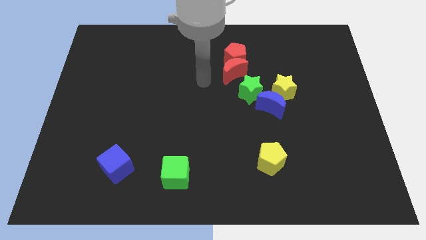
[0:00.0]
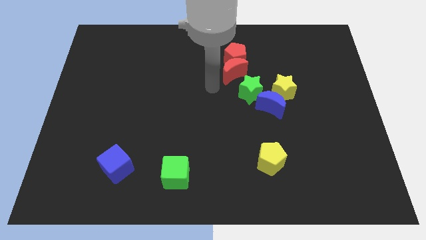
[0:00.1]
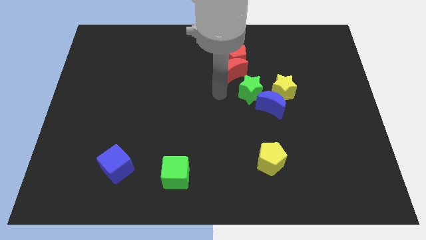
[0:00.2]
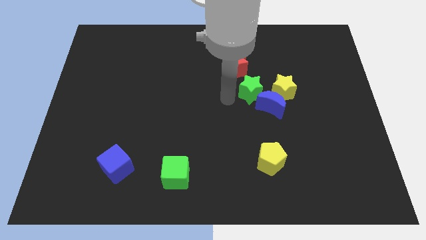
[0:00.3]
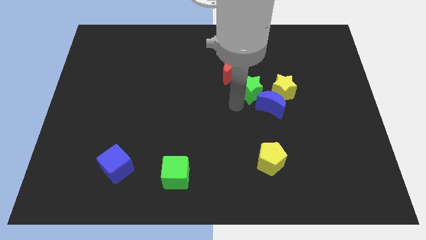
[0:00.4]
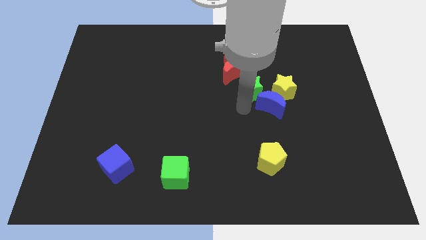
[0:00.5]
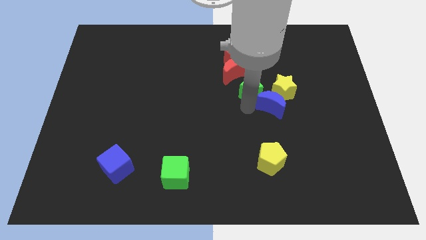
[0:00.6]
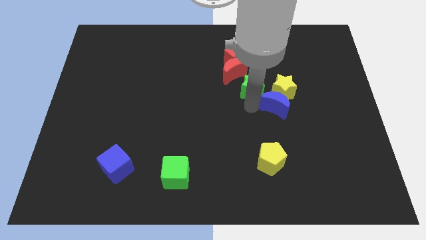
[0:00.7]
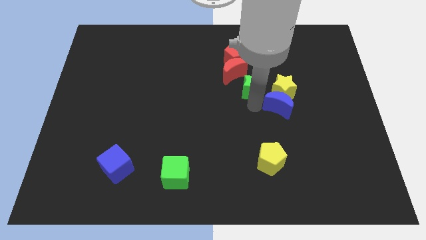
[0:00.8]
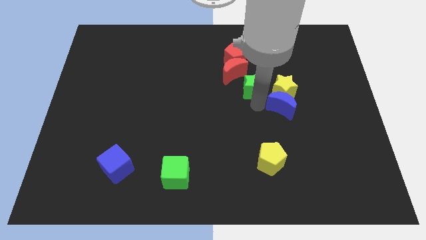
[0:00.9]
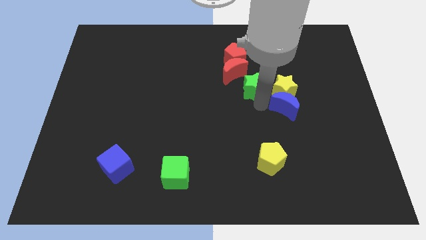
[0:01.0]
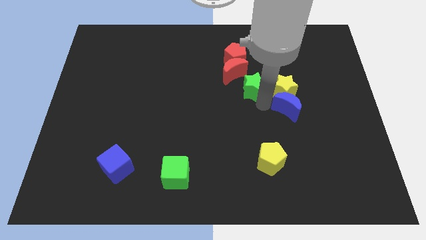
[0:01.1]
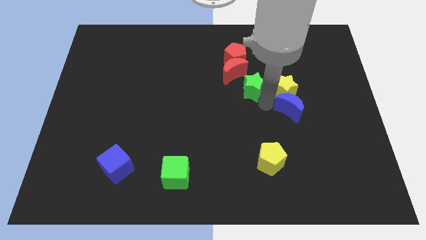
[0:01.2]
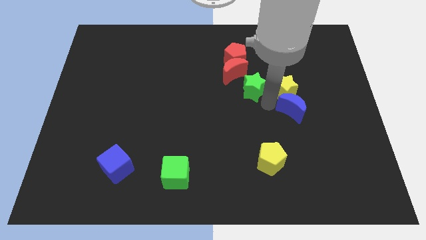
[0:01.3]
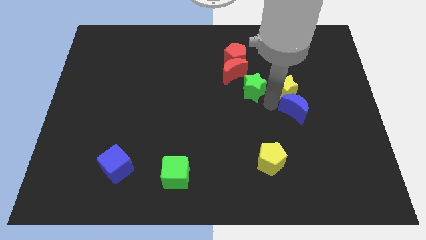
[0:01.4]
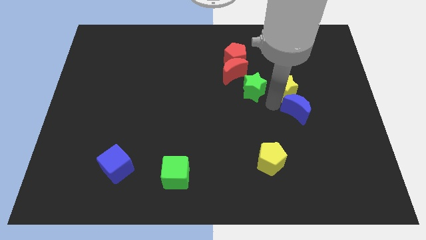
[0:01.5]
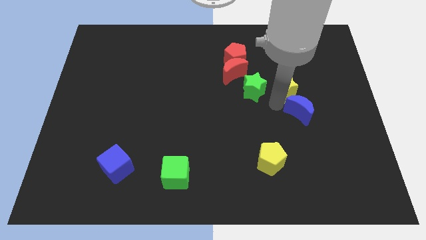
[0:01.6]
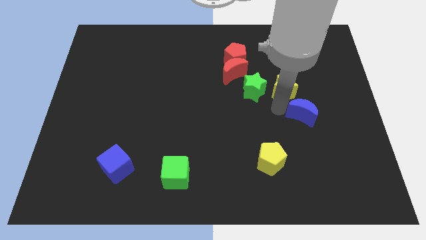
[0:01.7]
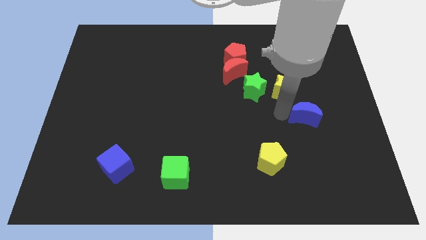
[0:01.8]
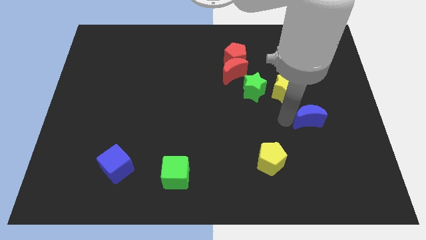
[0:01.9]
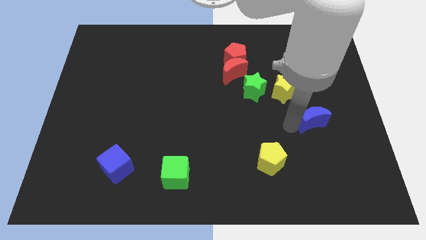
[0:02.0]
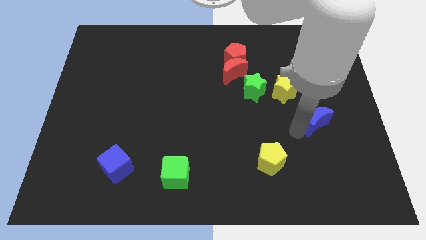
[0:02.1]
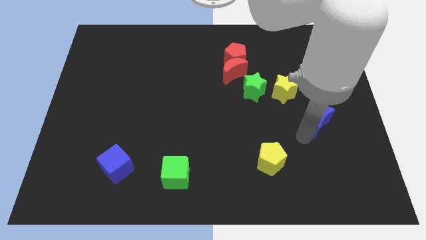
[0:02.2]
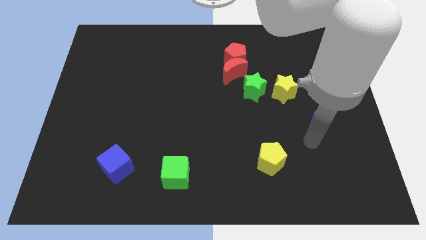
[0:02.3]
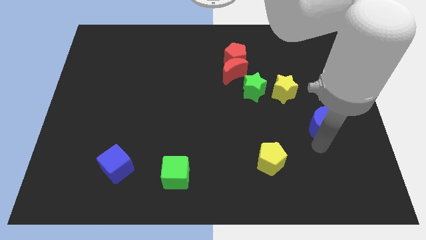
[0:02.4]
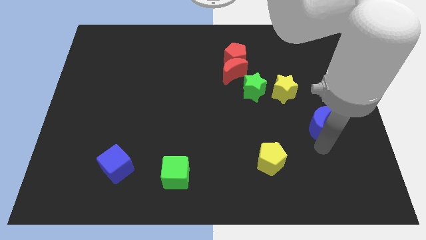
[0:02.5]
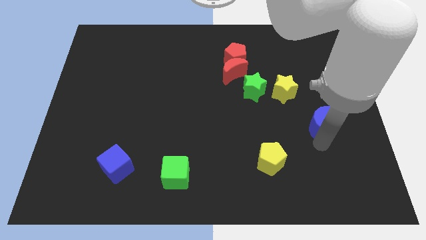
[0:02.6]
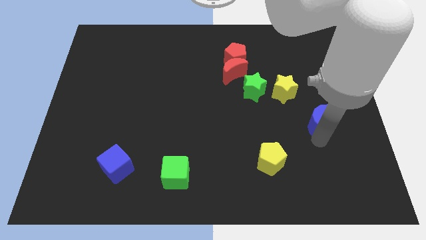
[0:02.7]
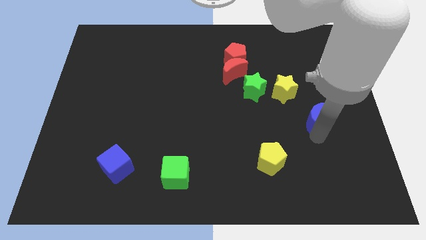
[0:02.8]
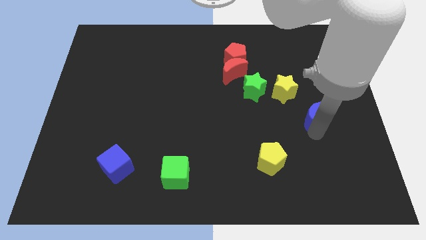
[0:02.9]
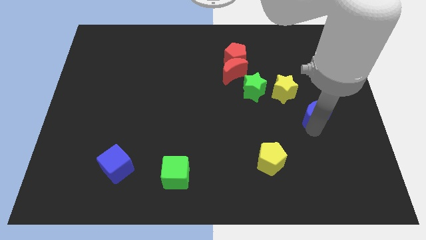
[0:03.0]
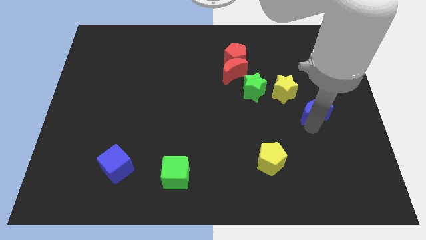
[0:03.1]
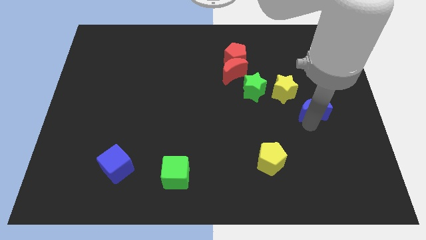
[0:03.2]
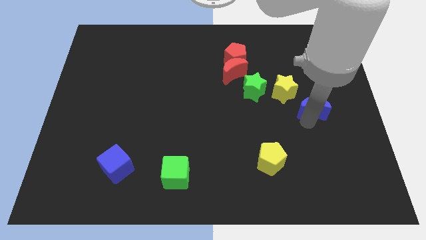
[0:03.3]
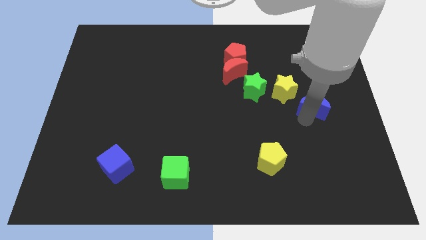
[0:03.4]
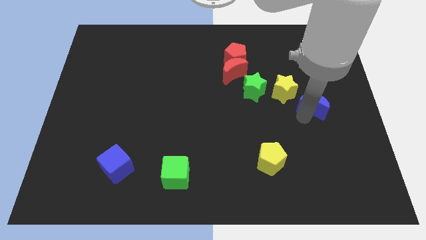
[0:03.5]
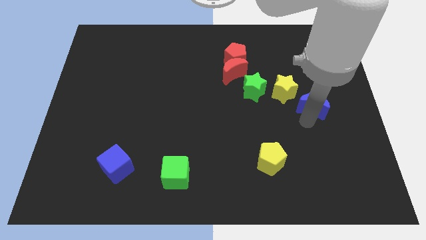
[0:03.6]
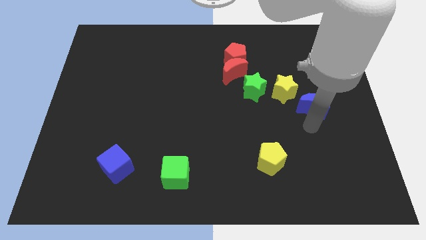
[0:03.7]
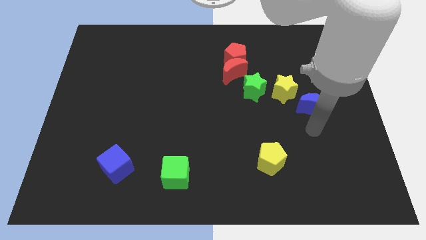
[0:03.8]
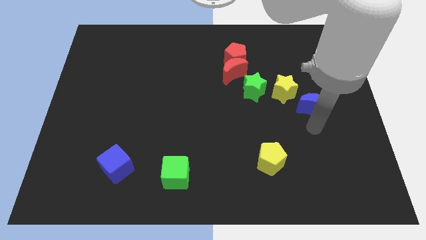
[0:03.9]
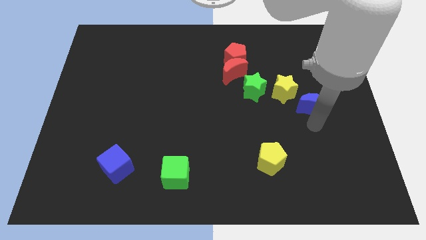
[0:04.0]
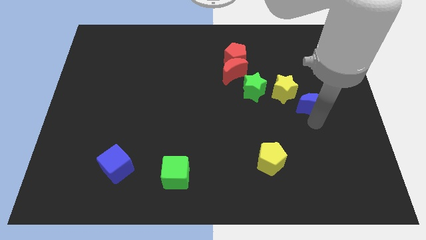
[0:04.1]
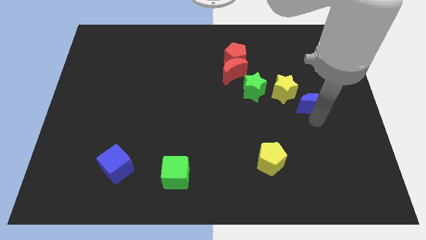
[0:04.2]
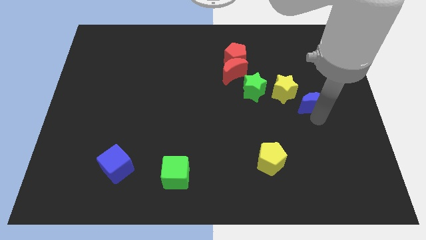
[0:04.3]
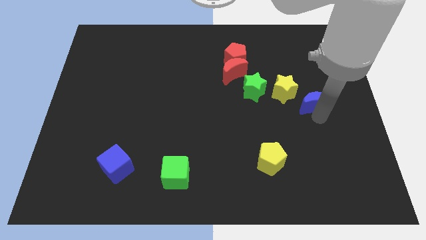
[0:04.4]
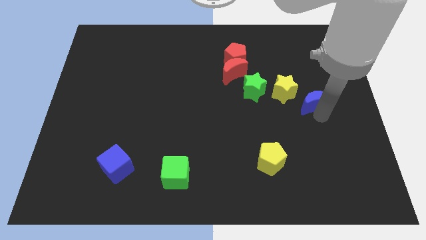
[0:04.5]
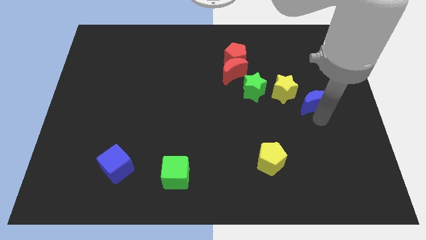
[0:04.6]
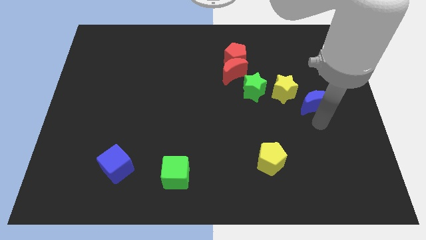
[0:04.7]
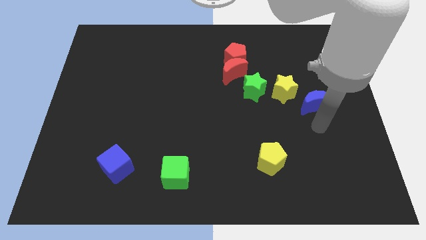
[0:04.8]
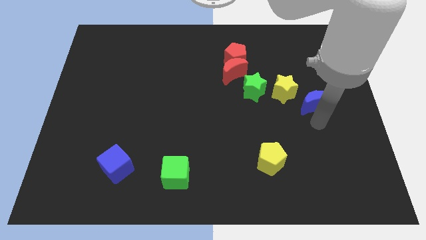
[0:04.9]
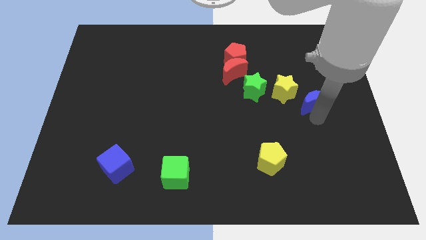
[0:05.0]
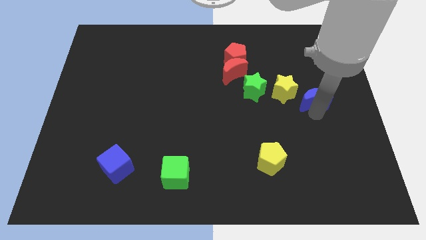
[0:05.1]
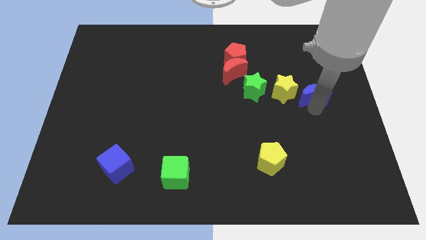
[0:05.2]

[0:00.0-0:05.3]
move the blue moon a little bit up and to the right diagonally

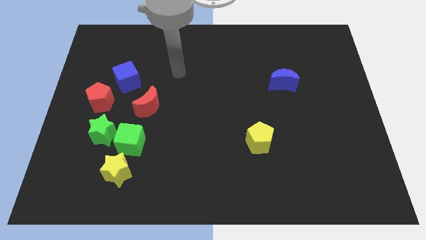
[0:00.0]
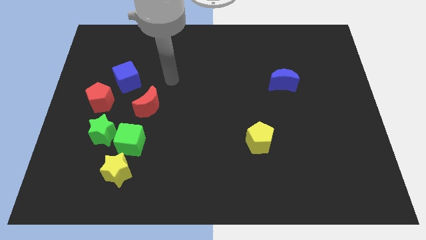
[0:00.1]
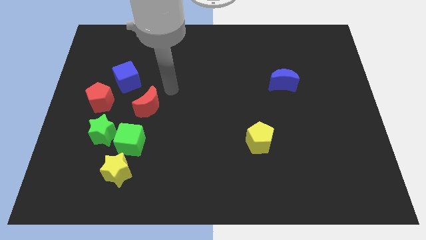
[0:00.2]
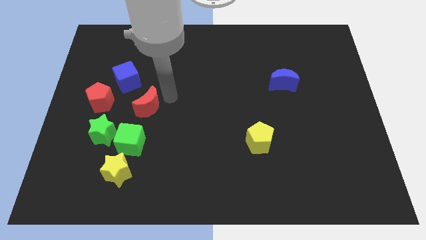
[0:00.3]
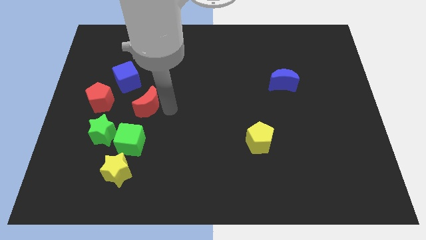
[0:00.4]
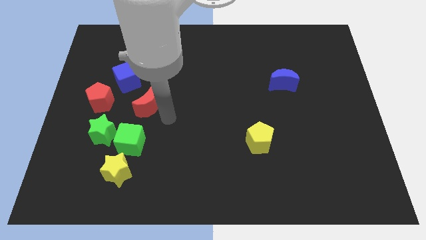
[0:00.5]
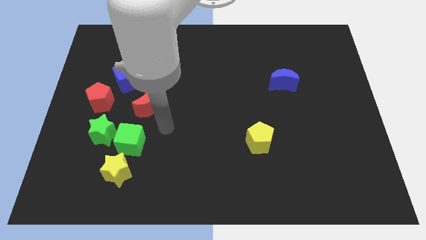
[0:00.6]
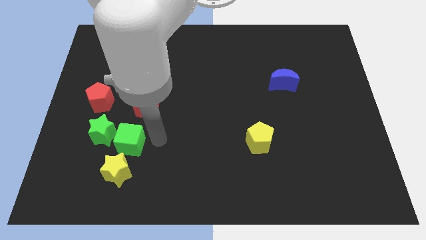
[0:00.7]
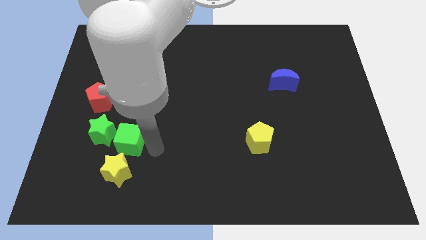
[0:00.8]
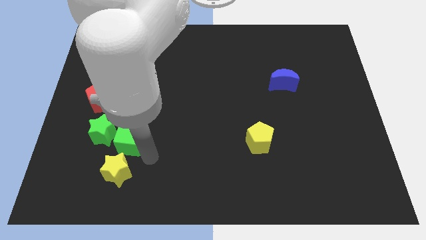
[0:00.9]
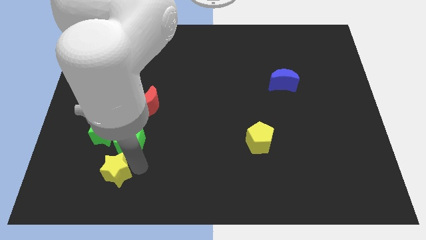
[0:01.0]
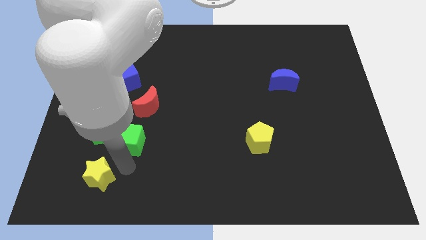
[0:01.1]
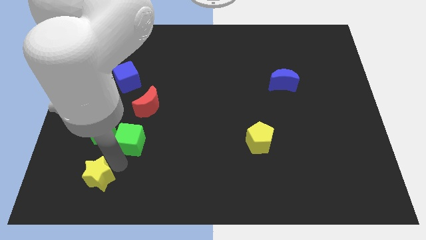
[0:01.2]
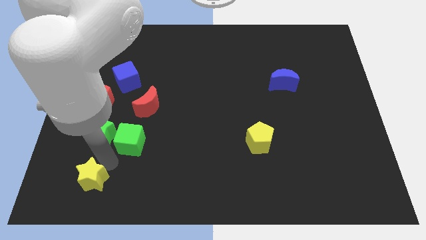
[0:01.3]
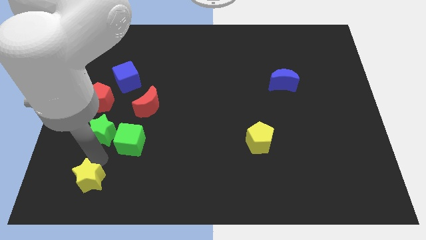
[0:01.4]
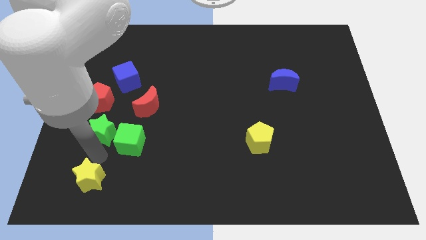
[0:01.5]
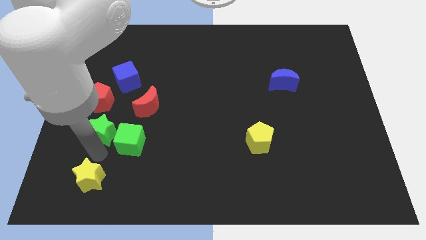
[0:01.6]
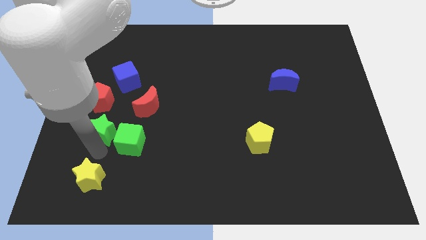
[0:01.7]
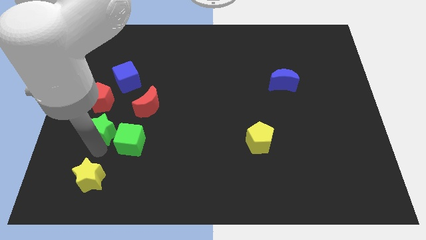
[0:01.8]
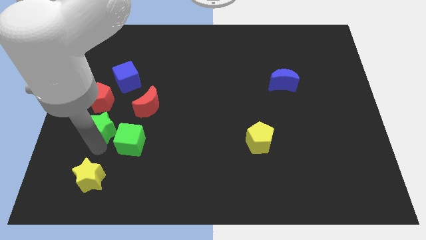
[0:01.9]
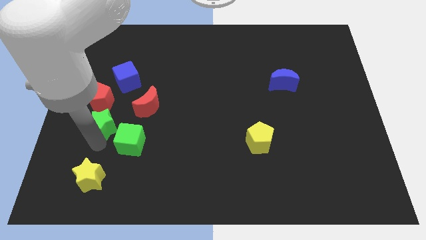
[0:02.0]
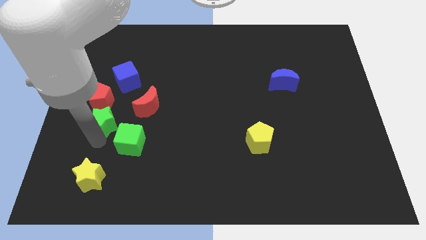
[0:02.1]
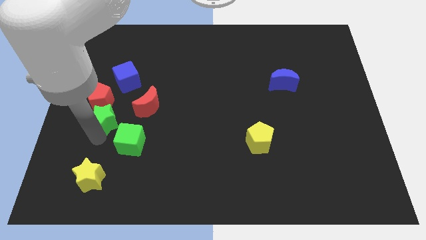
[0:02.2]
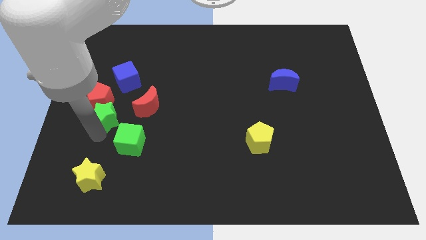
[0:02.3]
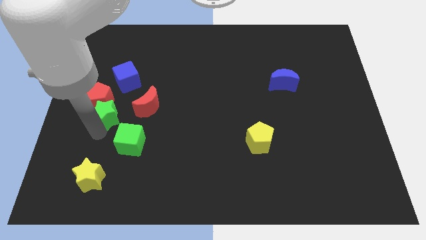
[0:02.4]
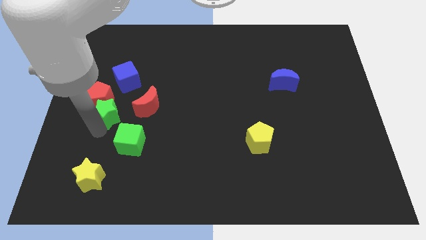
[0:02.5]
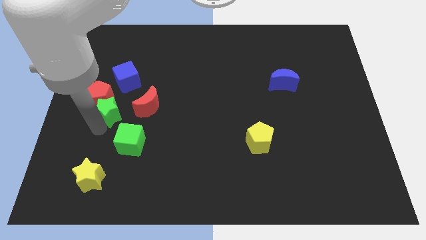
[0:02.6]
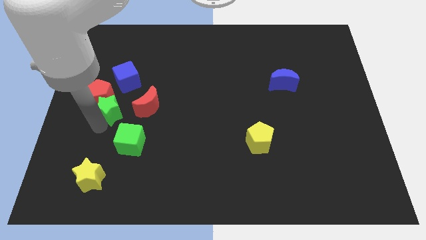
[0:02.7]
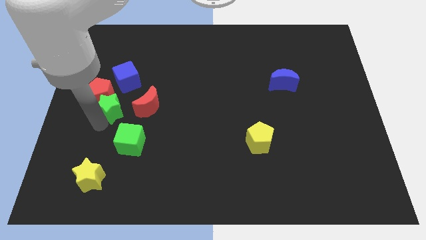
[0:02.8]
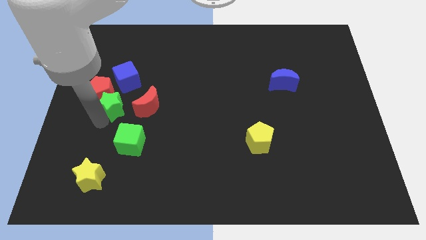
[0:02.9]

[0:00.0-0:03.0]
slightly move the green star up
